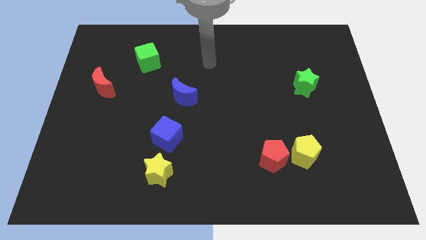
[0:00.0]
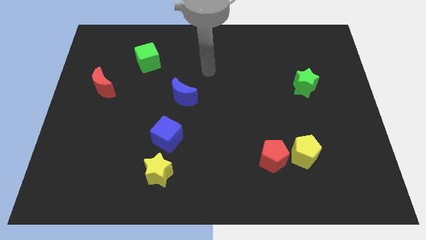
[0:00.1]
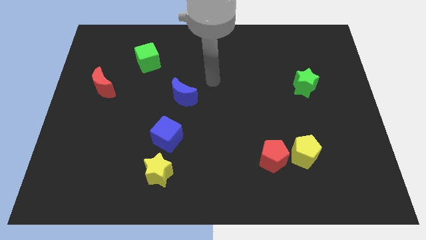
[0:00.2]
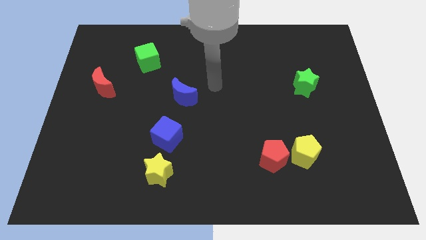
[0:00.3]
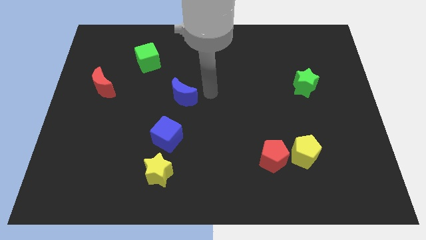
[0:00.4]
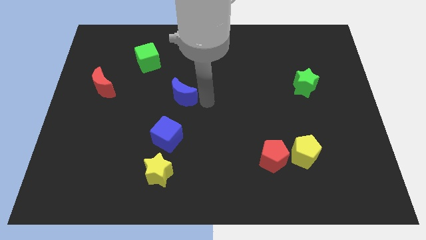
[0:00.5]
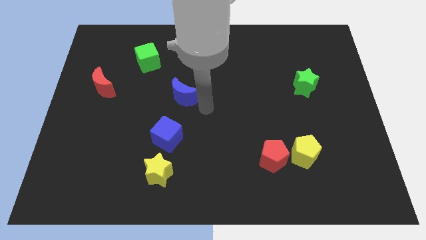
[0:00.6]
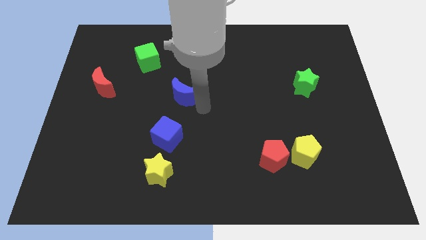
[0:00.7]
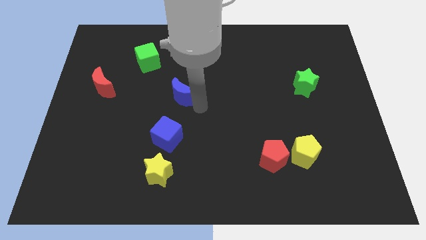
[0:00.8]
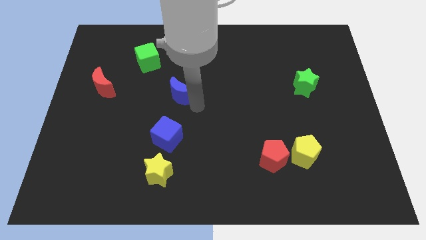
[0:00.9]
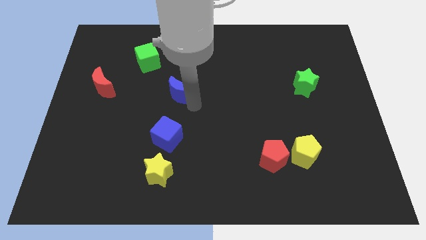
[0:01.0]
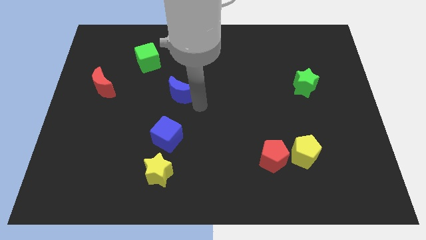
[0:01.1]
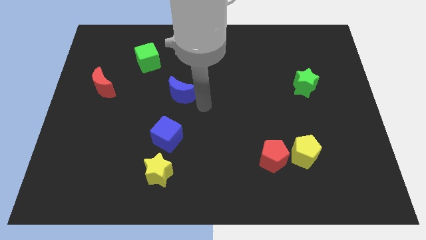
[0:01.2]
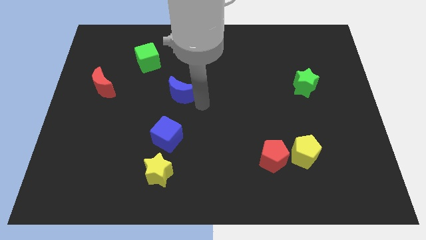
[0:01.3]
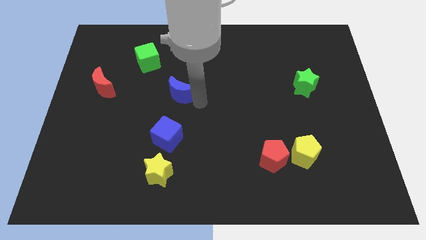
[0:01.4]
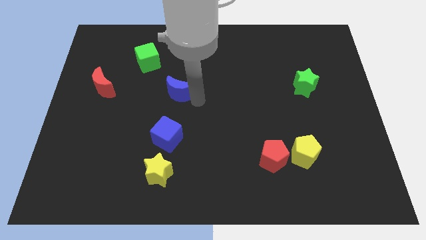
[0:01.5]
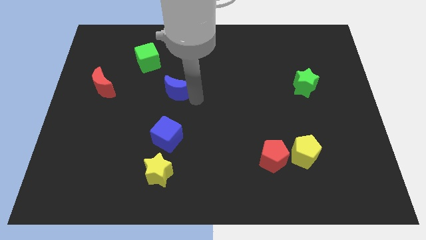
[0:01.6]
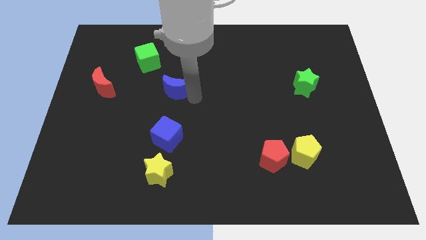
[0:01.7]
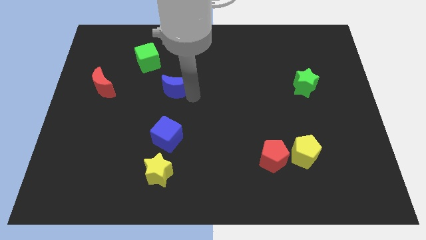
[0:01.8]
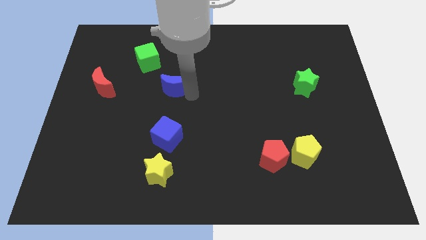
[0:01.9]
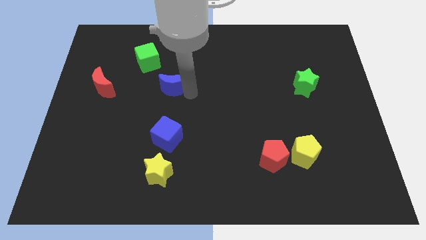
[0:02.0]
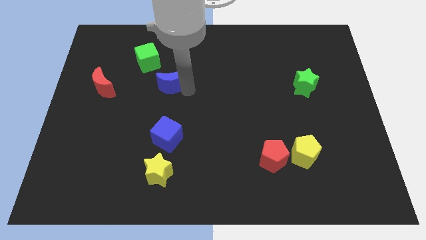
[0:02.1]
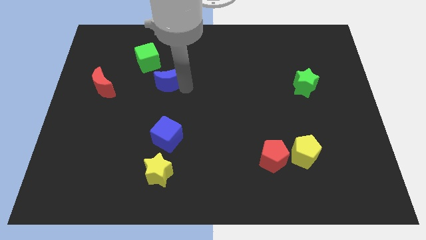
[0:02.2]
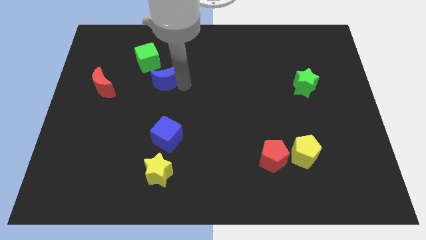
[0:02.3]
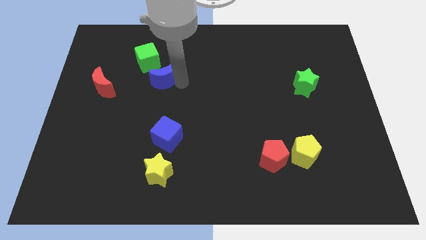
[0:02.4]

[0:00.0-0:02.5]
move the blue moon up and then to the left a little

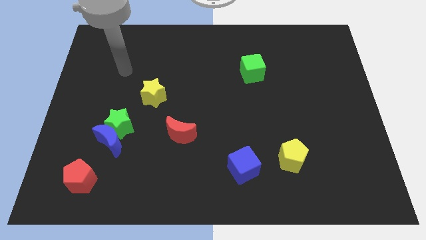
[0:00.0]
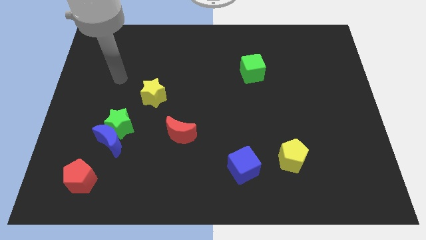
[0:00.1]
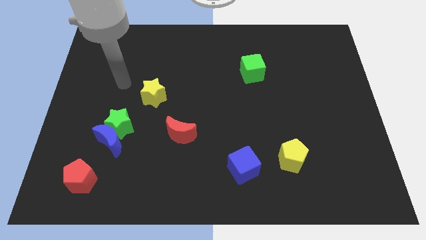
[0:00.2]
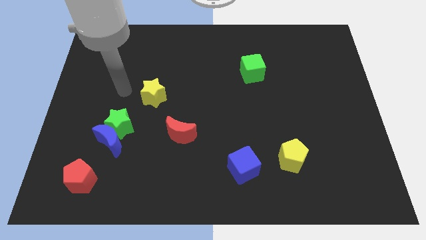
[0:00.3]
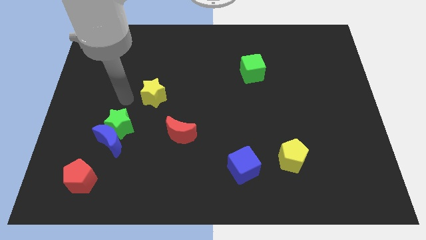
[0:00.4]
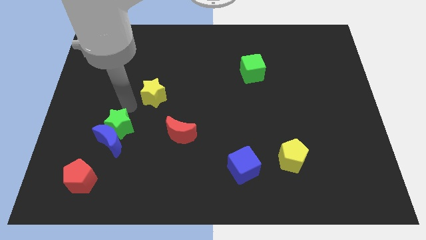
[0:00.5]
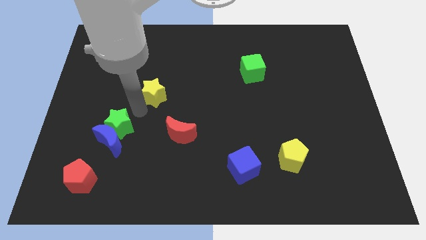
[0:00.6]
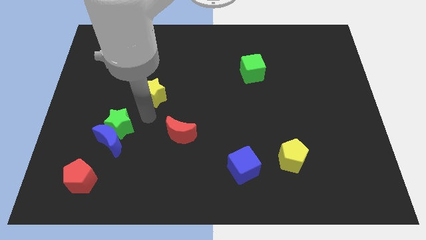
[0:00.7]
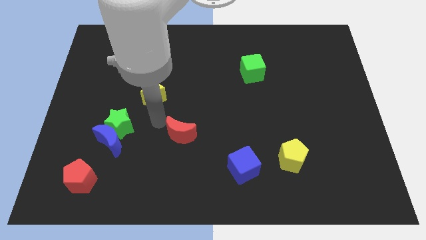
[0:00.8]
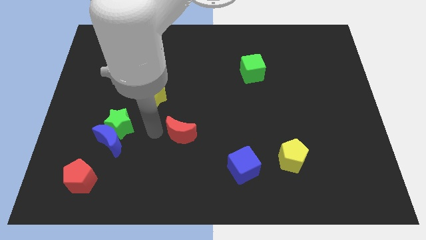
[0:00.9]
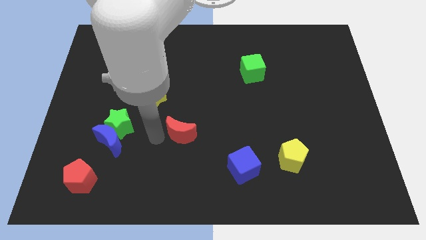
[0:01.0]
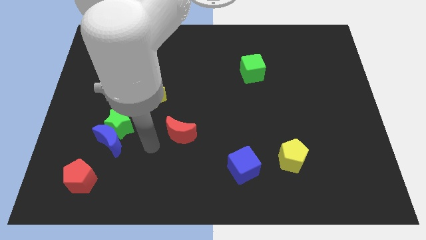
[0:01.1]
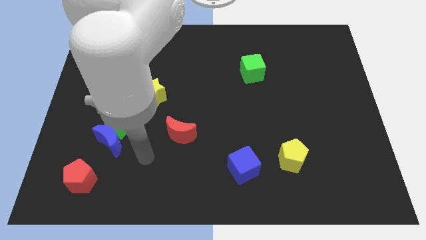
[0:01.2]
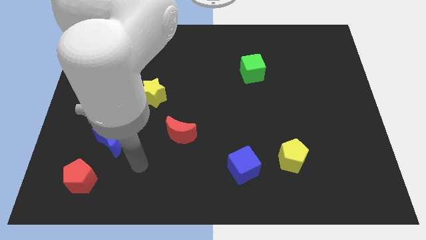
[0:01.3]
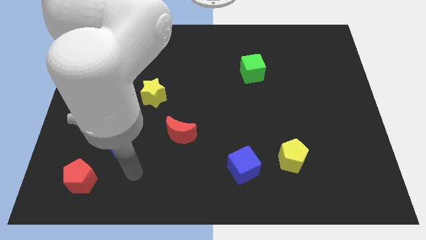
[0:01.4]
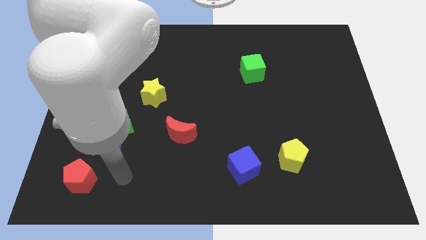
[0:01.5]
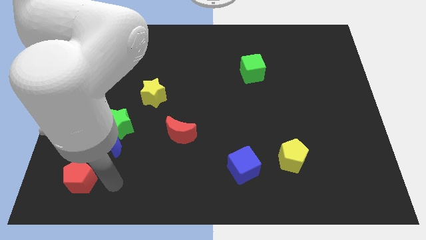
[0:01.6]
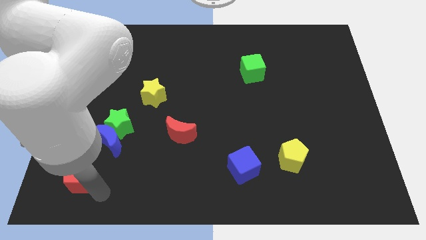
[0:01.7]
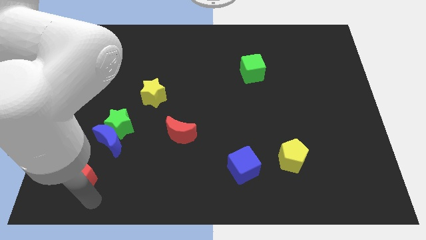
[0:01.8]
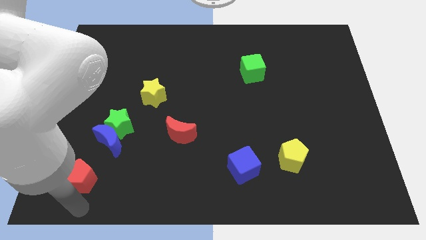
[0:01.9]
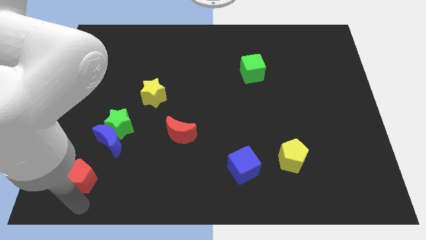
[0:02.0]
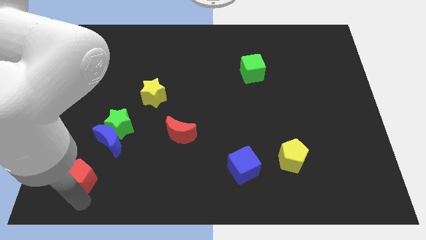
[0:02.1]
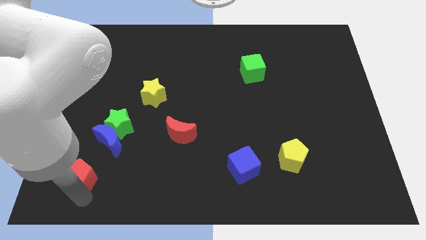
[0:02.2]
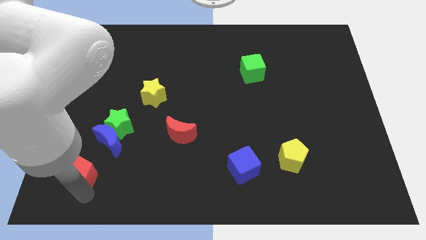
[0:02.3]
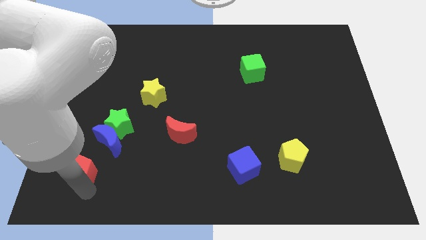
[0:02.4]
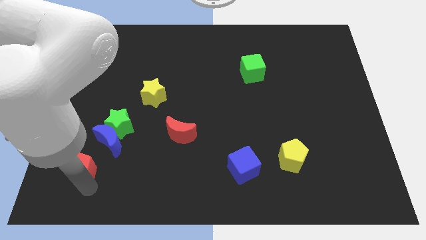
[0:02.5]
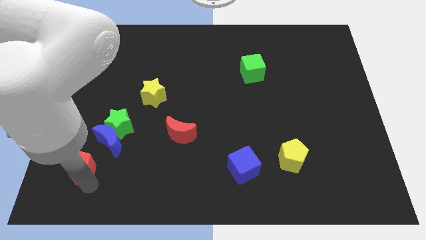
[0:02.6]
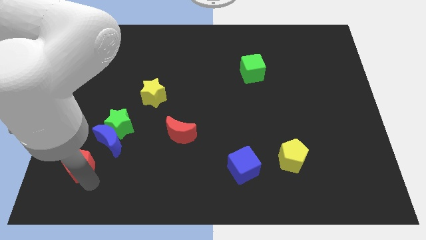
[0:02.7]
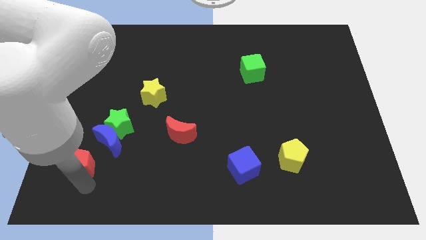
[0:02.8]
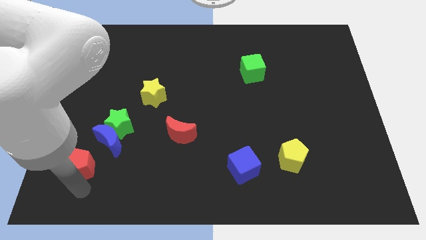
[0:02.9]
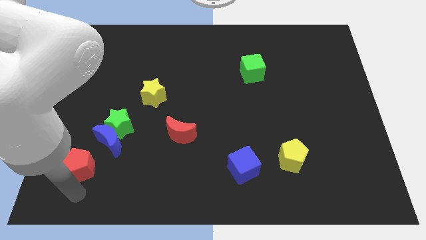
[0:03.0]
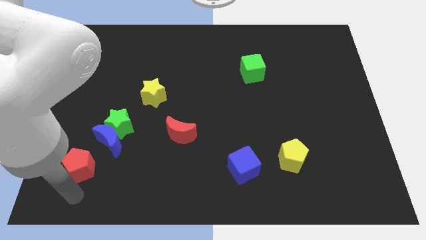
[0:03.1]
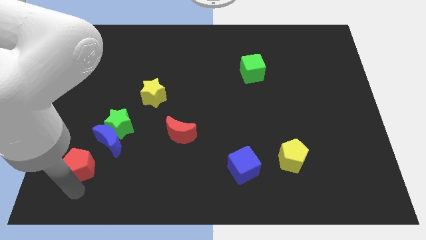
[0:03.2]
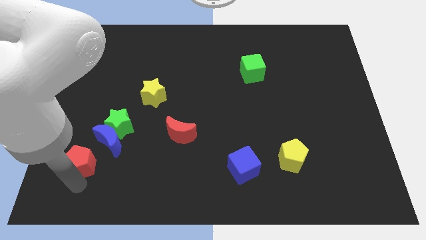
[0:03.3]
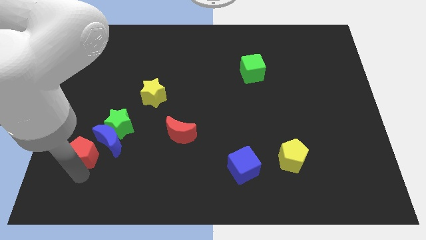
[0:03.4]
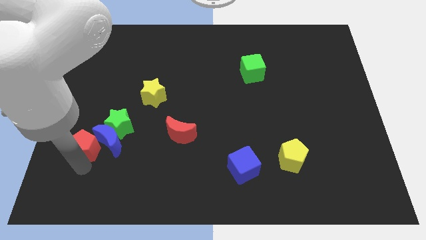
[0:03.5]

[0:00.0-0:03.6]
slightly move the red pentagon upwards

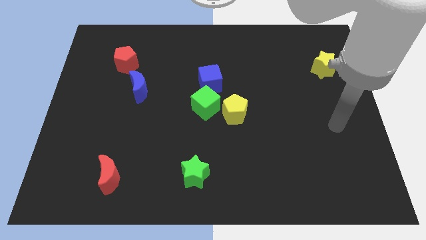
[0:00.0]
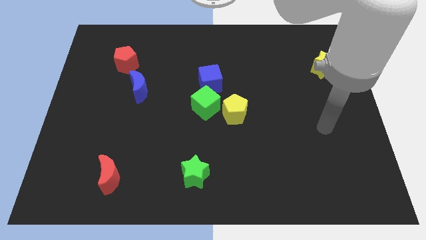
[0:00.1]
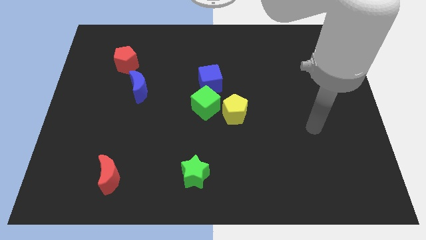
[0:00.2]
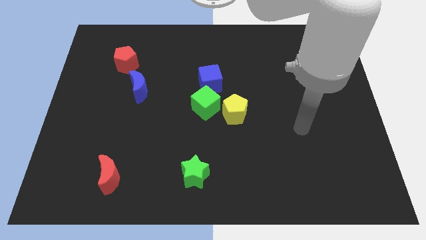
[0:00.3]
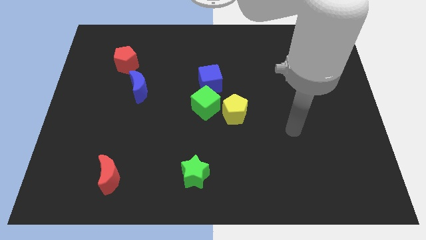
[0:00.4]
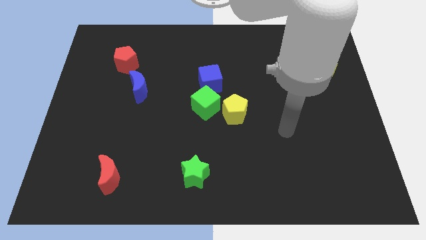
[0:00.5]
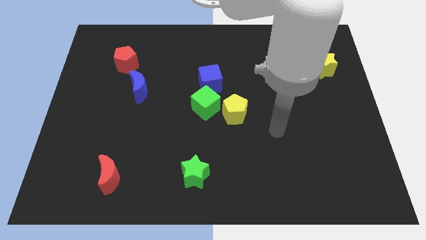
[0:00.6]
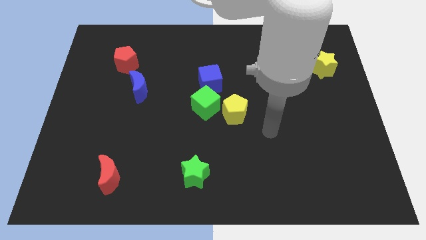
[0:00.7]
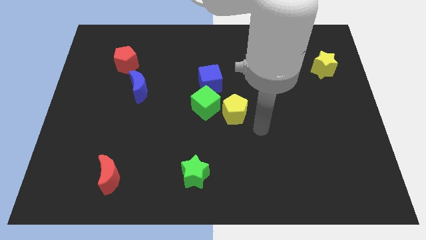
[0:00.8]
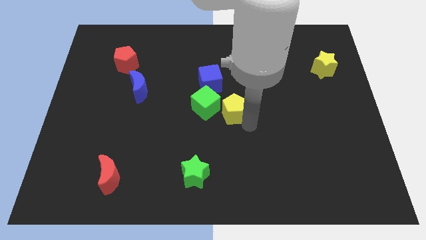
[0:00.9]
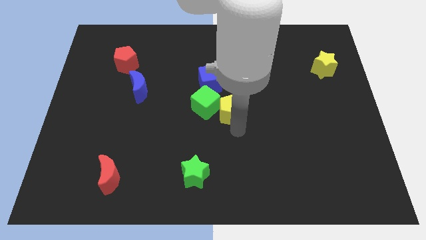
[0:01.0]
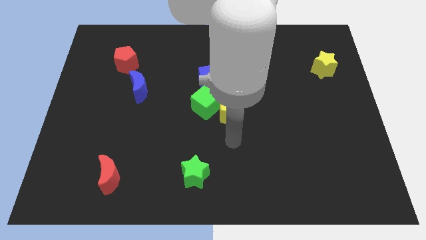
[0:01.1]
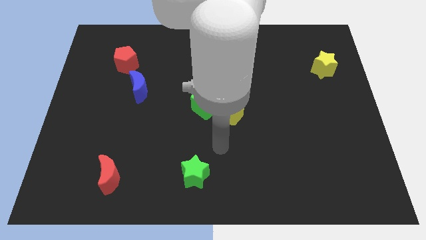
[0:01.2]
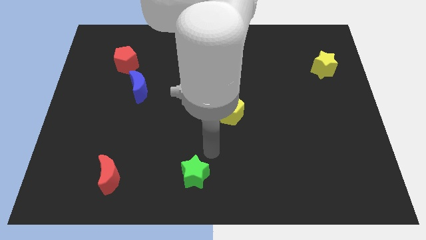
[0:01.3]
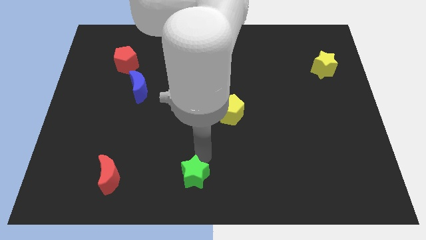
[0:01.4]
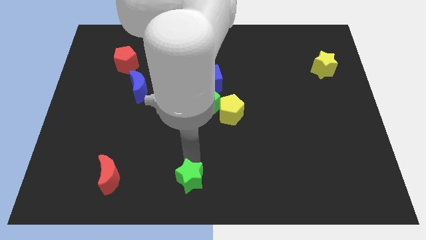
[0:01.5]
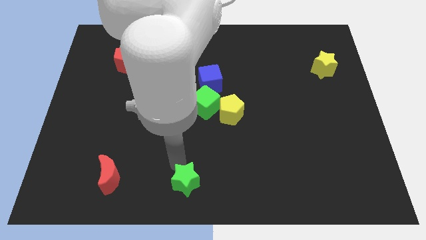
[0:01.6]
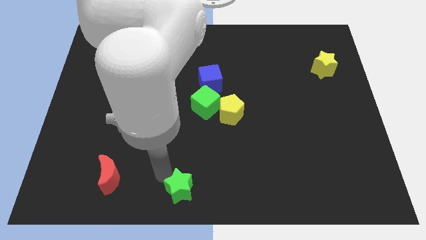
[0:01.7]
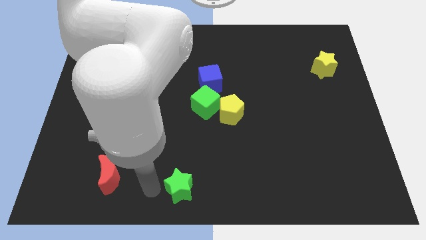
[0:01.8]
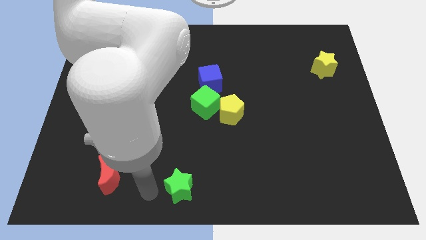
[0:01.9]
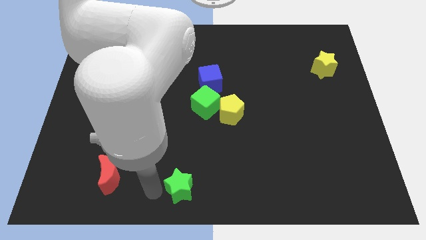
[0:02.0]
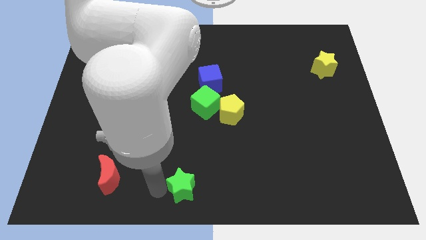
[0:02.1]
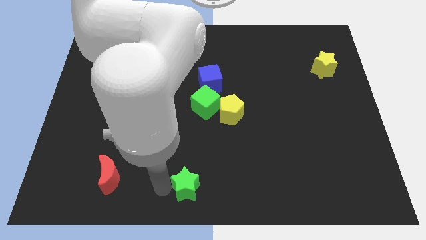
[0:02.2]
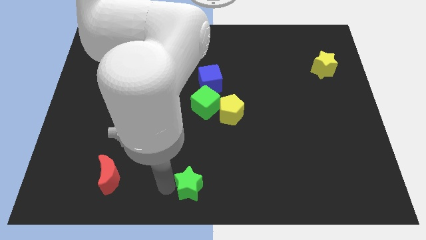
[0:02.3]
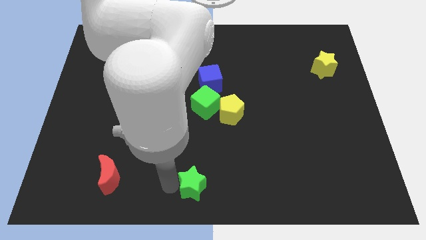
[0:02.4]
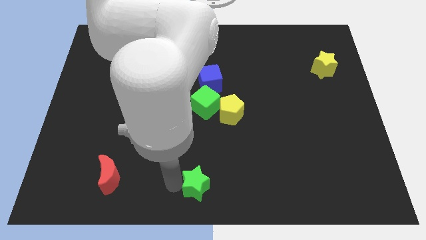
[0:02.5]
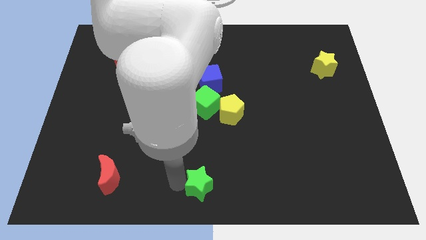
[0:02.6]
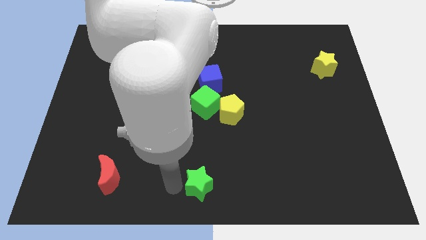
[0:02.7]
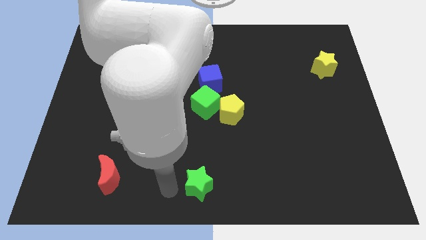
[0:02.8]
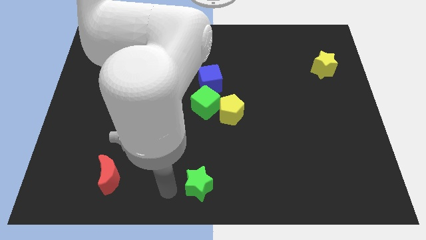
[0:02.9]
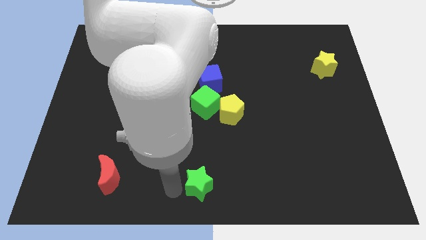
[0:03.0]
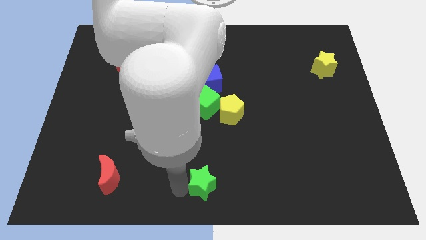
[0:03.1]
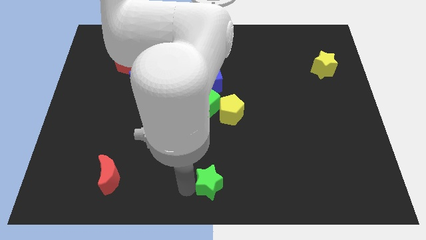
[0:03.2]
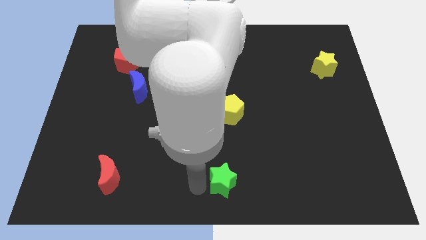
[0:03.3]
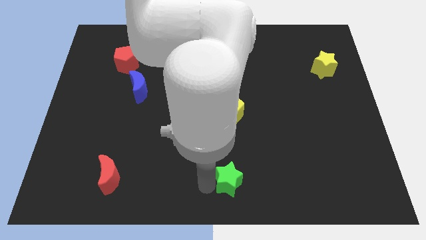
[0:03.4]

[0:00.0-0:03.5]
slightly slide the green star to the right
